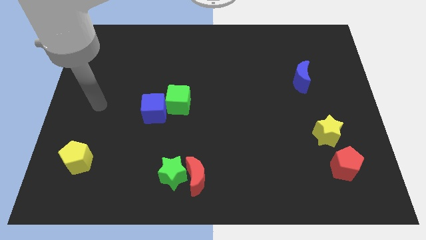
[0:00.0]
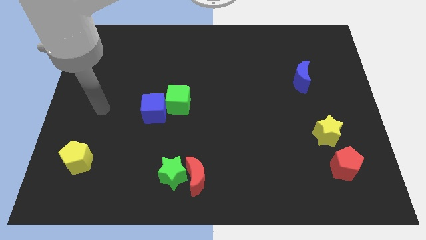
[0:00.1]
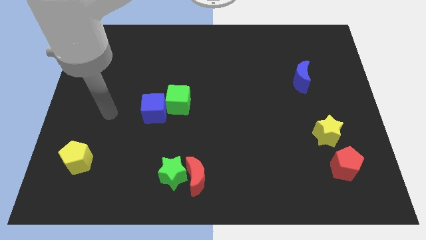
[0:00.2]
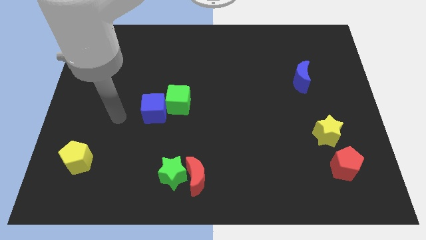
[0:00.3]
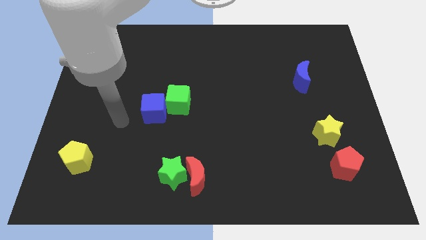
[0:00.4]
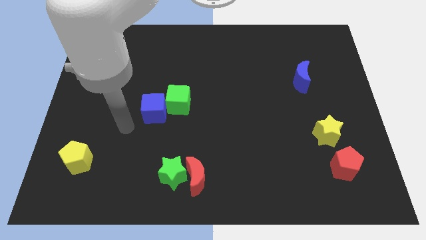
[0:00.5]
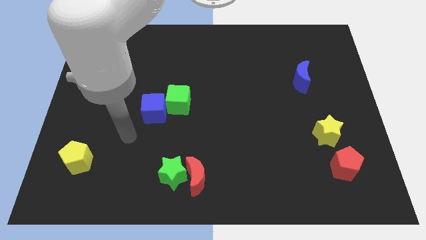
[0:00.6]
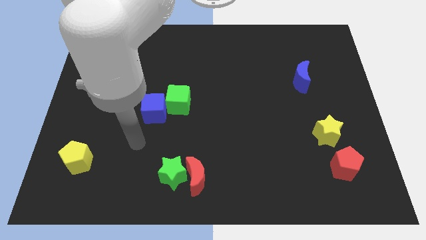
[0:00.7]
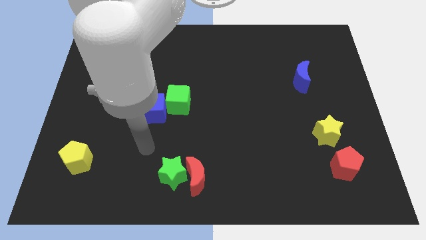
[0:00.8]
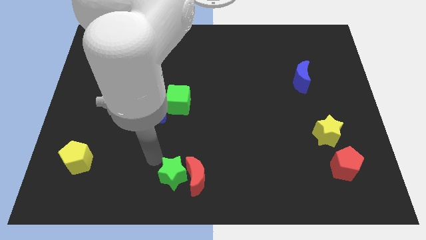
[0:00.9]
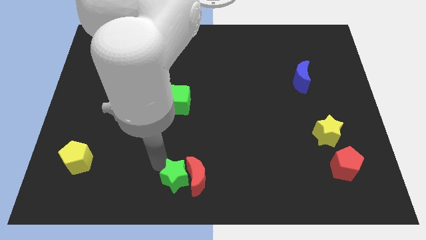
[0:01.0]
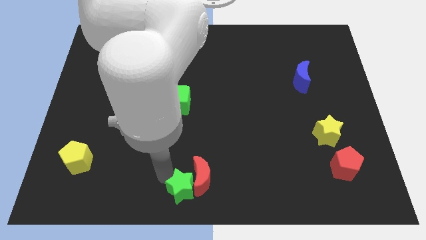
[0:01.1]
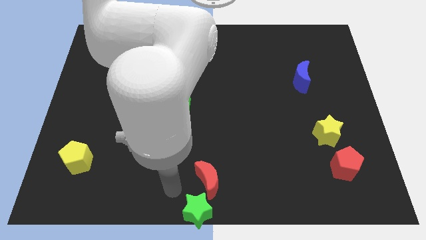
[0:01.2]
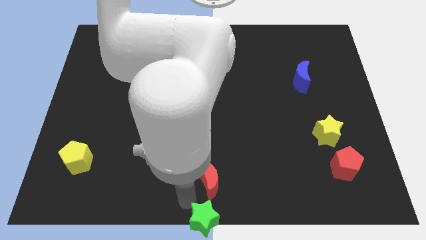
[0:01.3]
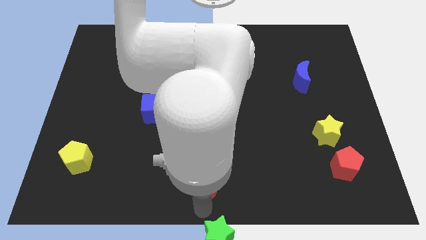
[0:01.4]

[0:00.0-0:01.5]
move the red moon away from the green star

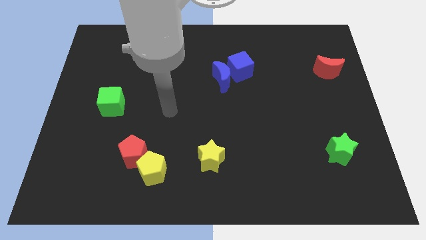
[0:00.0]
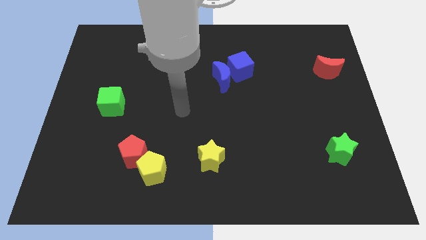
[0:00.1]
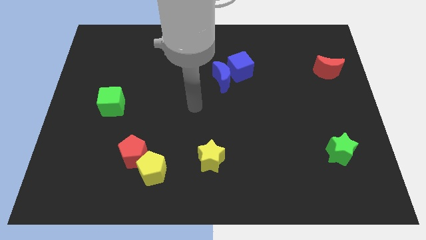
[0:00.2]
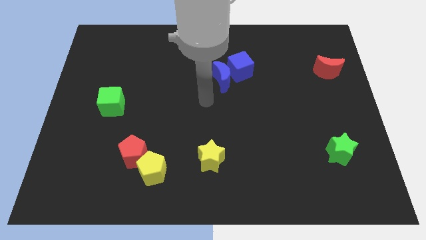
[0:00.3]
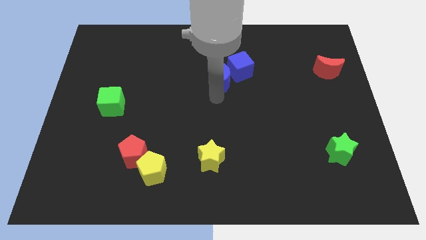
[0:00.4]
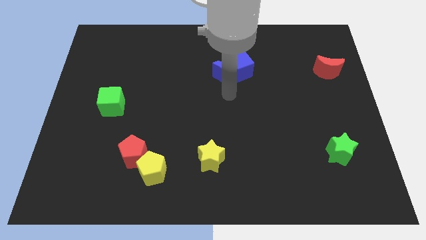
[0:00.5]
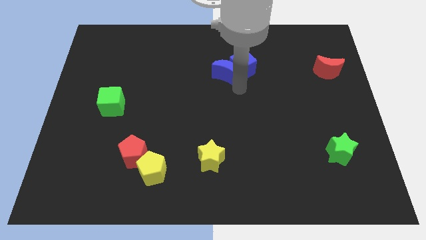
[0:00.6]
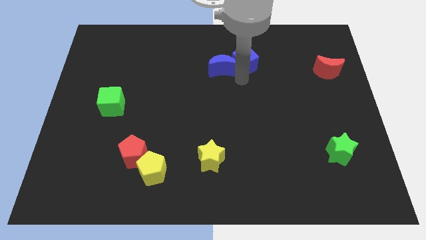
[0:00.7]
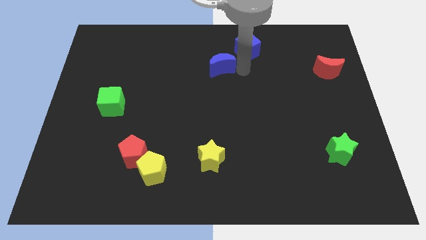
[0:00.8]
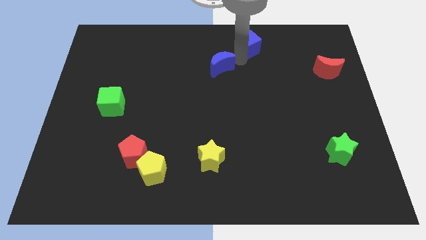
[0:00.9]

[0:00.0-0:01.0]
separate the blue moon from the blue cube

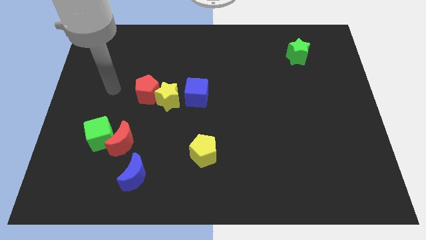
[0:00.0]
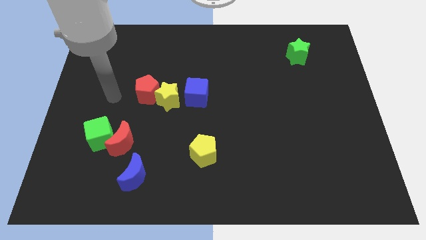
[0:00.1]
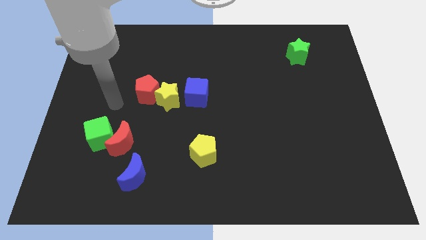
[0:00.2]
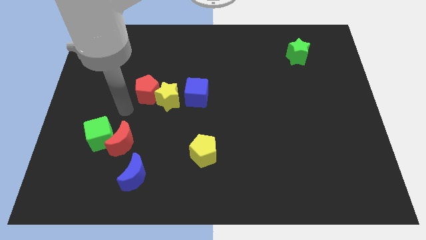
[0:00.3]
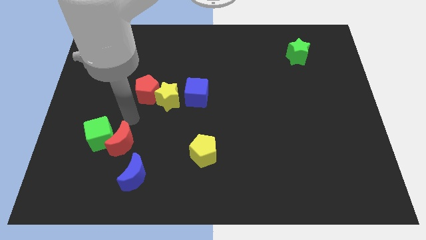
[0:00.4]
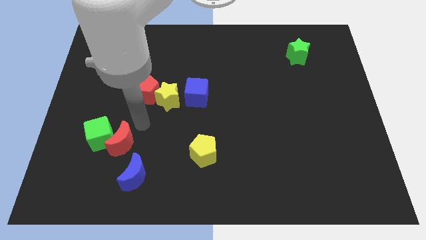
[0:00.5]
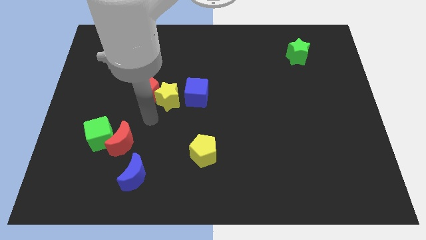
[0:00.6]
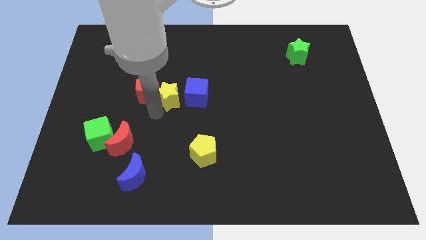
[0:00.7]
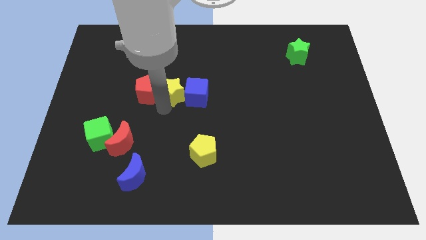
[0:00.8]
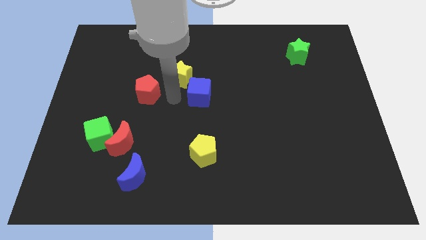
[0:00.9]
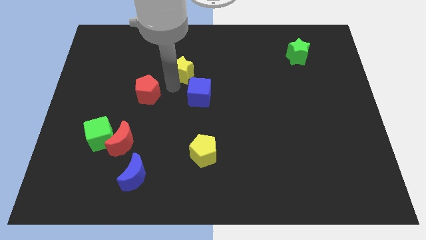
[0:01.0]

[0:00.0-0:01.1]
move the red pentagon away from the yellow star

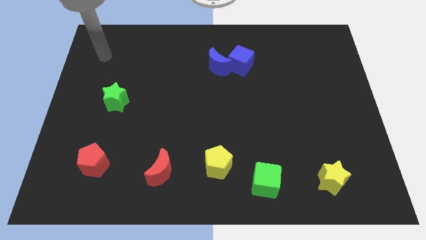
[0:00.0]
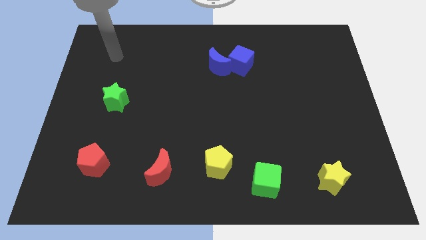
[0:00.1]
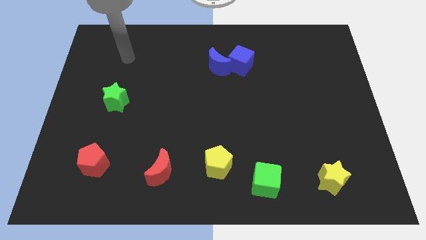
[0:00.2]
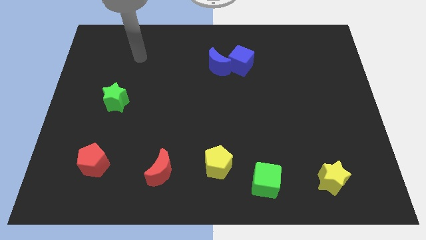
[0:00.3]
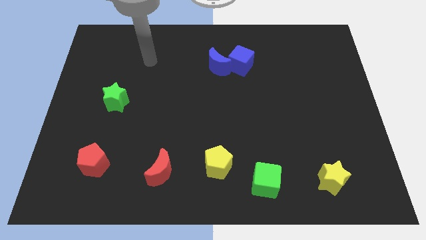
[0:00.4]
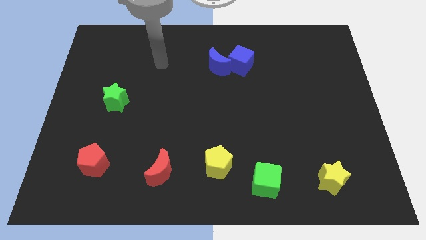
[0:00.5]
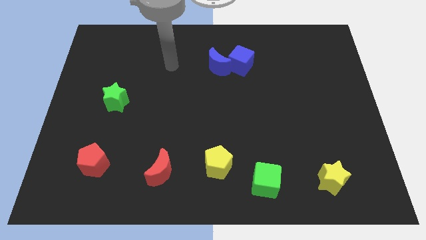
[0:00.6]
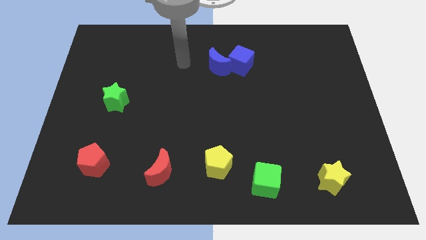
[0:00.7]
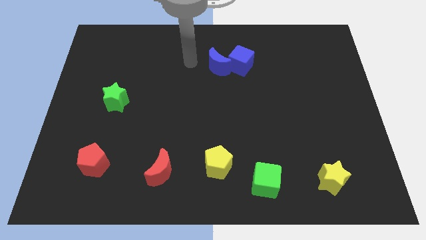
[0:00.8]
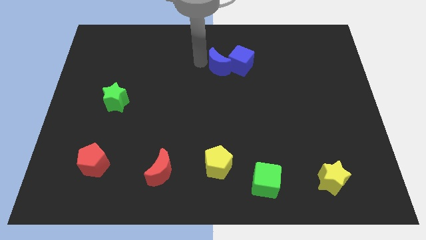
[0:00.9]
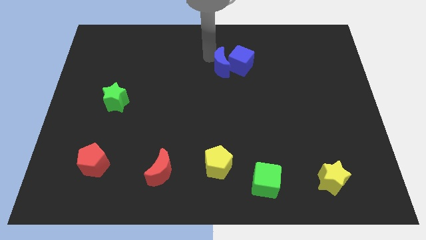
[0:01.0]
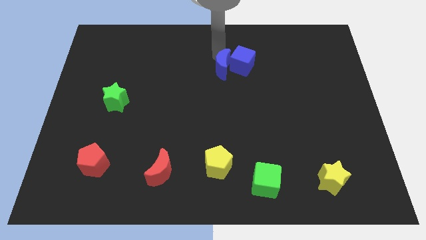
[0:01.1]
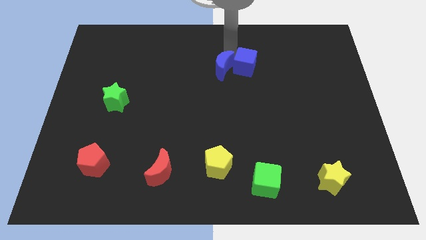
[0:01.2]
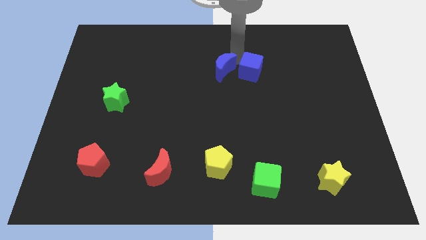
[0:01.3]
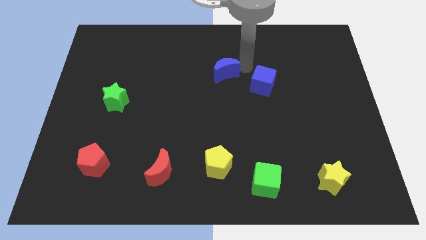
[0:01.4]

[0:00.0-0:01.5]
move the blue moon away from the blue cube

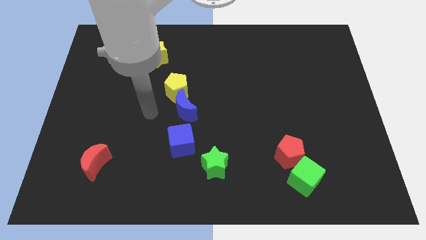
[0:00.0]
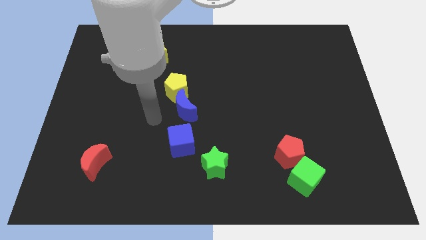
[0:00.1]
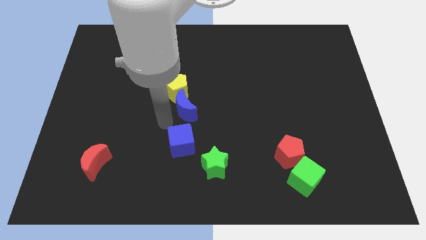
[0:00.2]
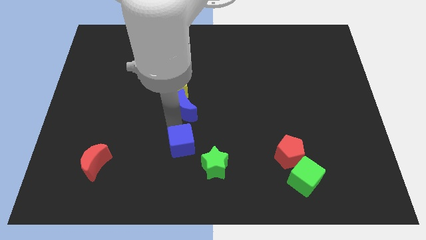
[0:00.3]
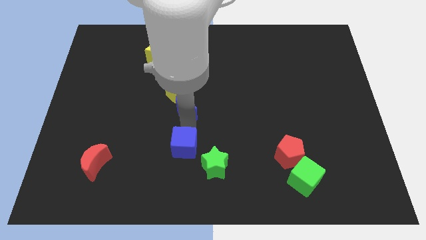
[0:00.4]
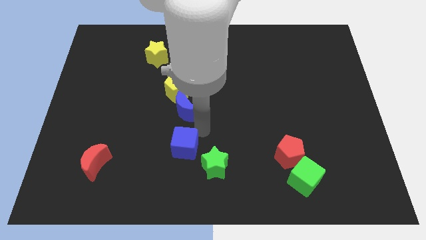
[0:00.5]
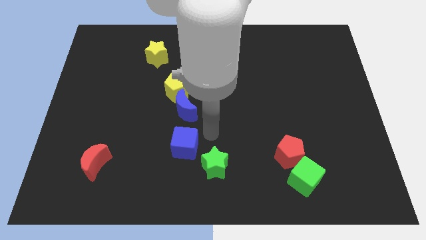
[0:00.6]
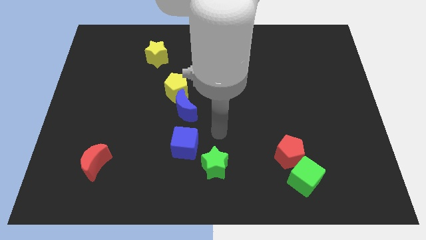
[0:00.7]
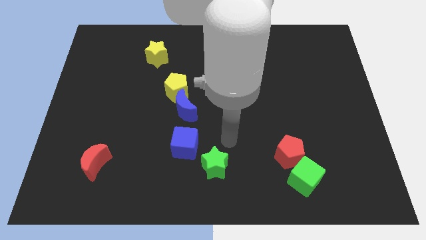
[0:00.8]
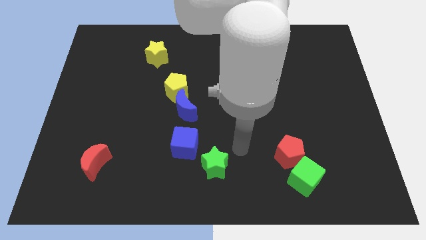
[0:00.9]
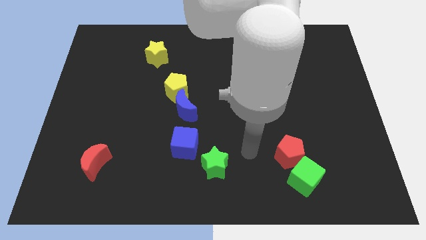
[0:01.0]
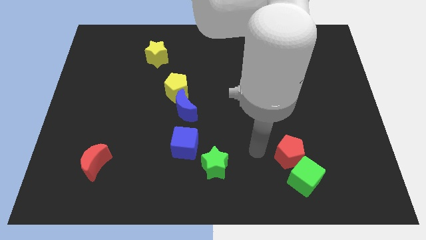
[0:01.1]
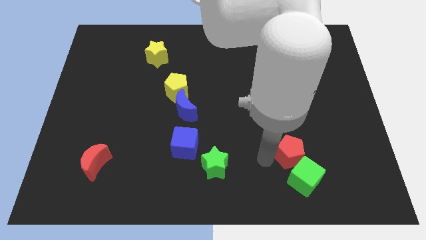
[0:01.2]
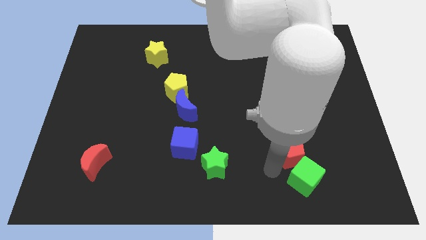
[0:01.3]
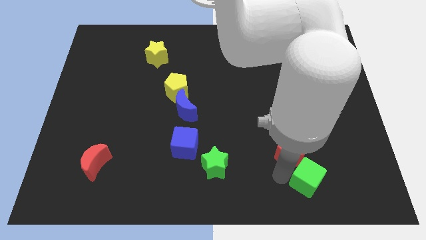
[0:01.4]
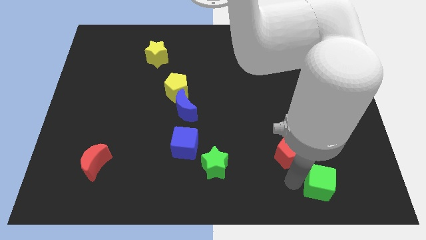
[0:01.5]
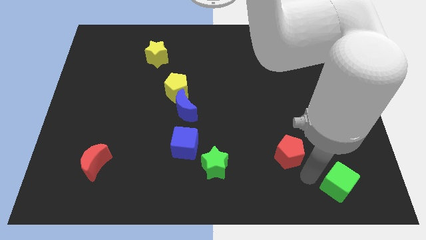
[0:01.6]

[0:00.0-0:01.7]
move the red pentagon away from the green cube

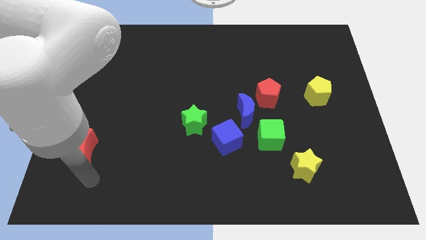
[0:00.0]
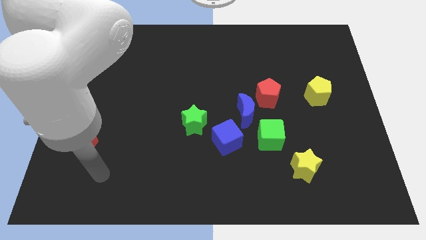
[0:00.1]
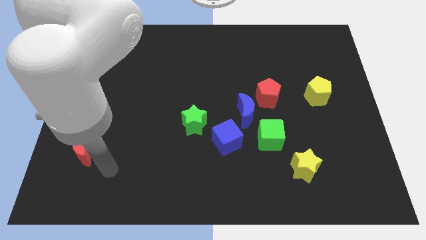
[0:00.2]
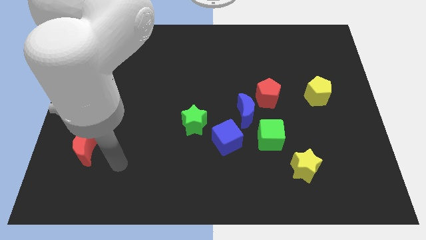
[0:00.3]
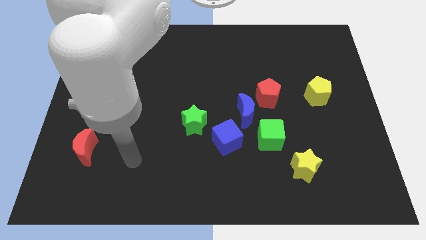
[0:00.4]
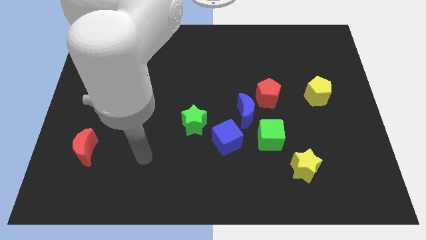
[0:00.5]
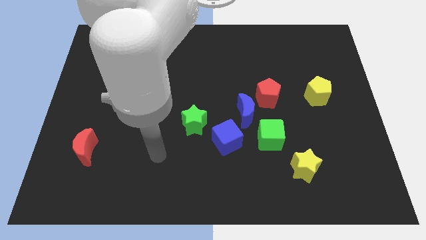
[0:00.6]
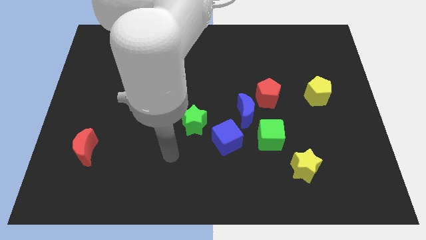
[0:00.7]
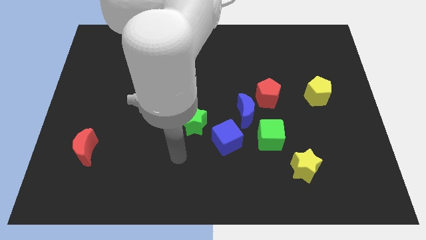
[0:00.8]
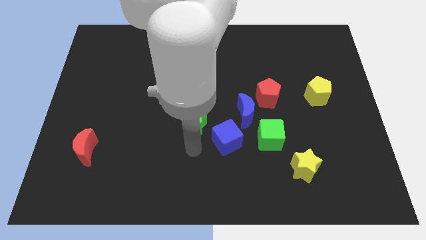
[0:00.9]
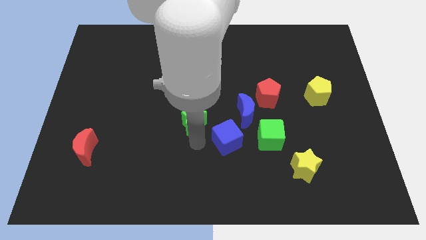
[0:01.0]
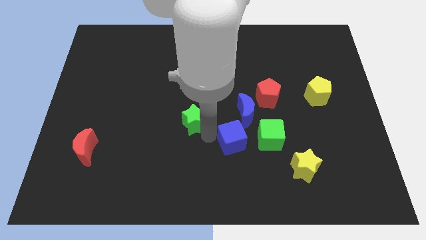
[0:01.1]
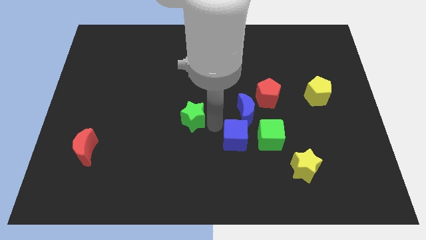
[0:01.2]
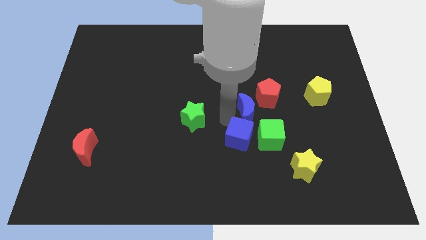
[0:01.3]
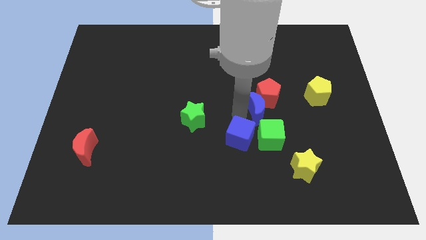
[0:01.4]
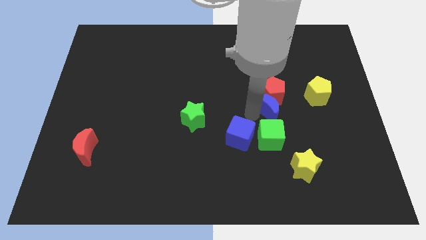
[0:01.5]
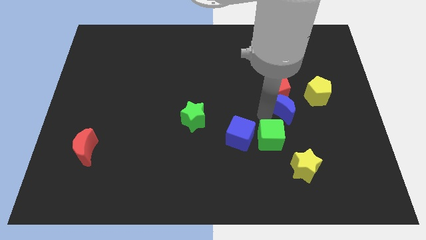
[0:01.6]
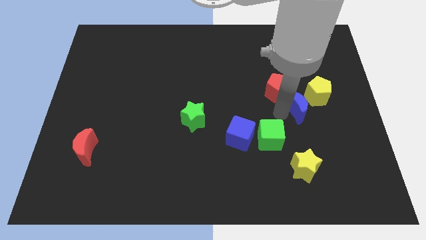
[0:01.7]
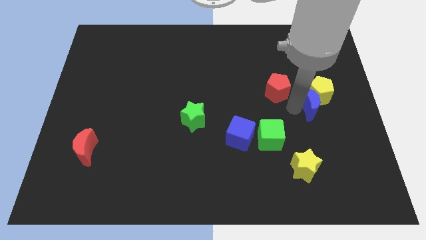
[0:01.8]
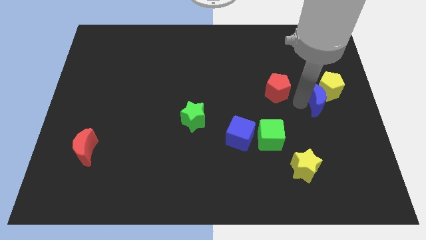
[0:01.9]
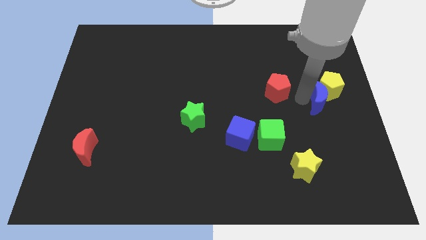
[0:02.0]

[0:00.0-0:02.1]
move the red pentagon away from the blue moon

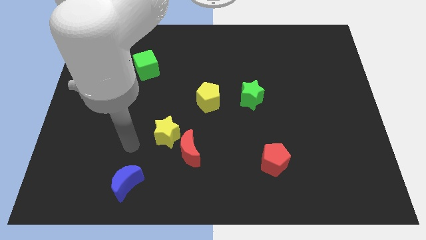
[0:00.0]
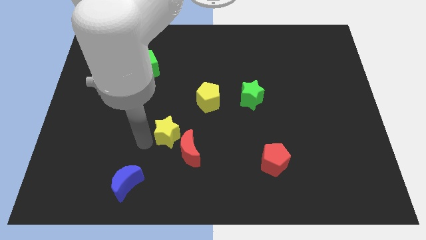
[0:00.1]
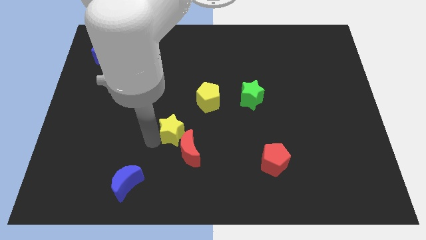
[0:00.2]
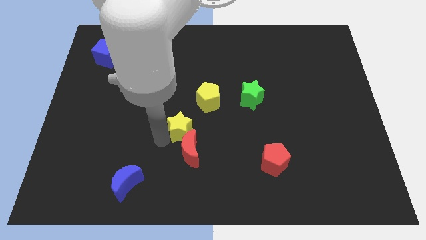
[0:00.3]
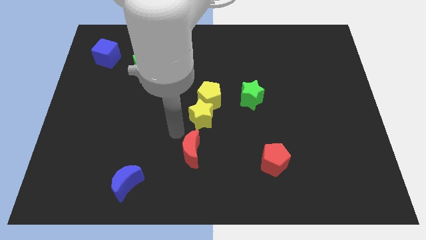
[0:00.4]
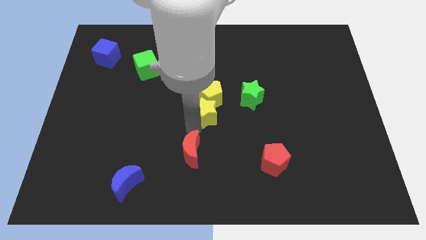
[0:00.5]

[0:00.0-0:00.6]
separate the red moon from the yellow star
